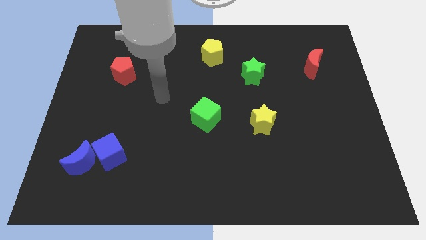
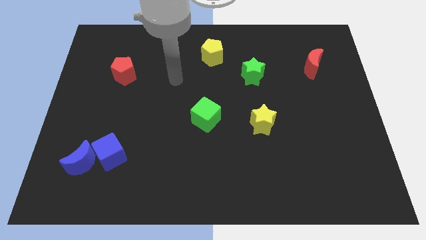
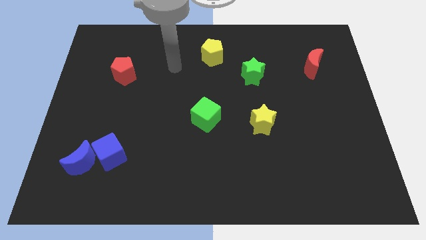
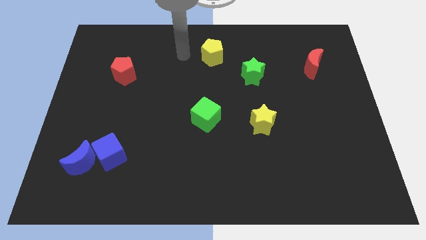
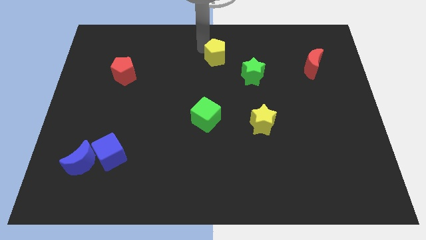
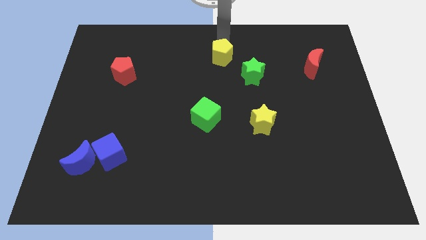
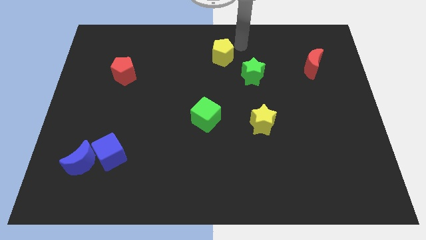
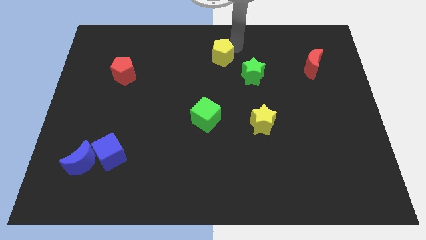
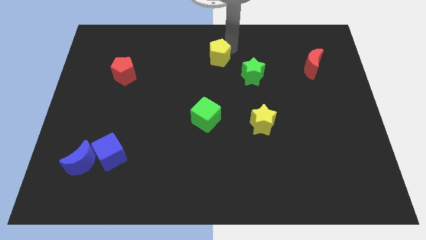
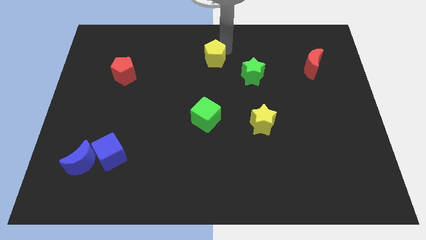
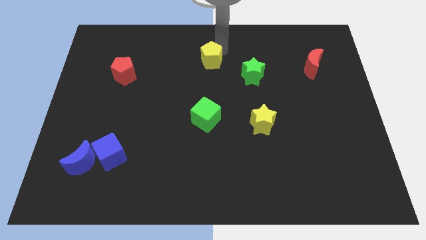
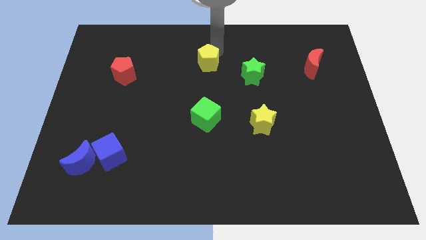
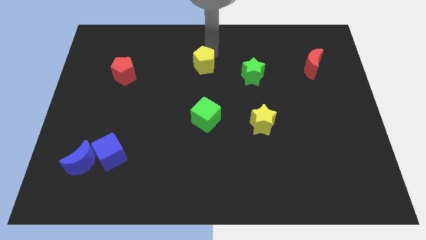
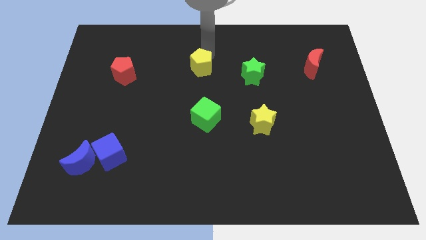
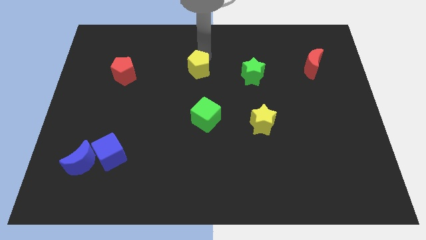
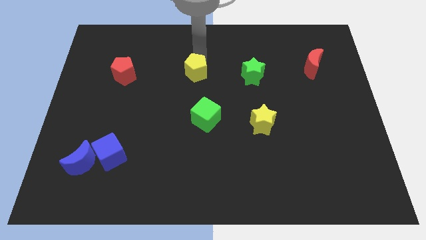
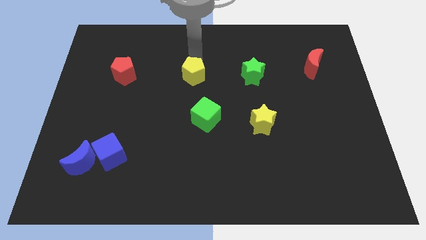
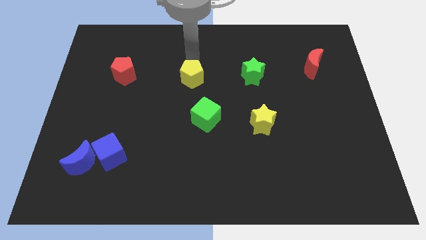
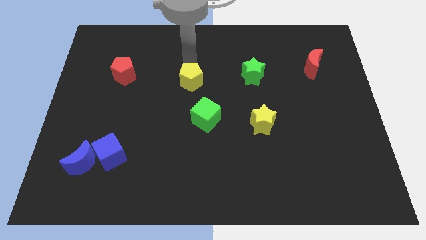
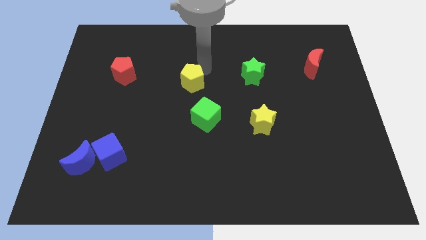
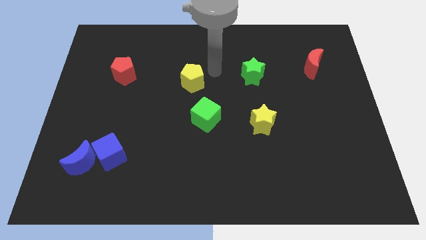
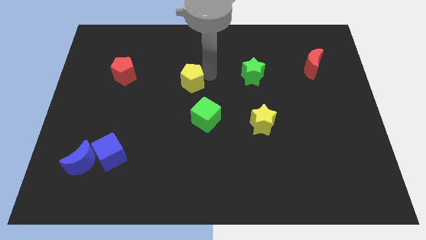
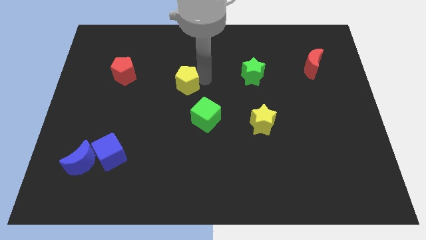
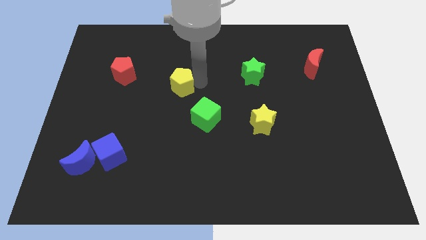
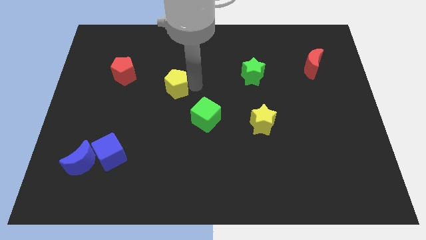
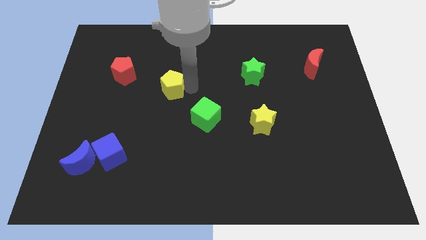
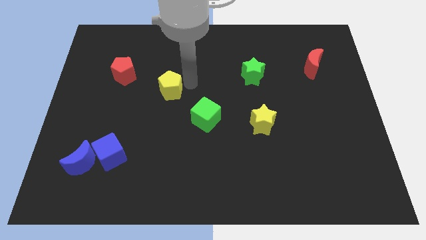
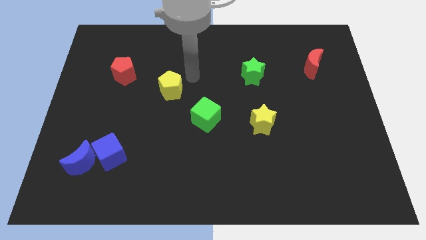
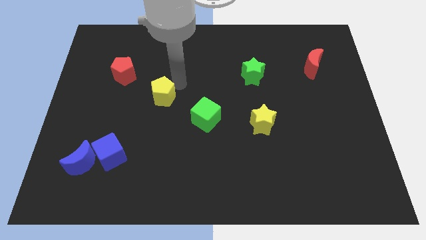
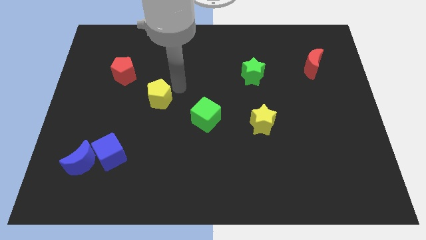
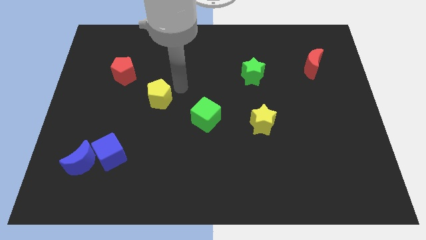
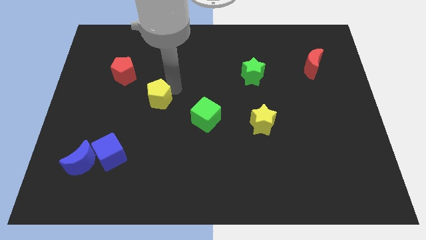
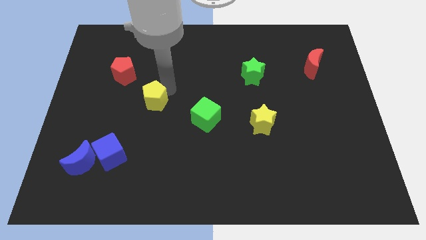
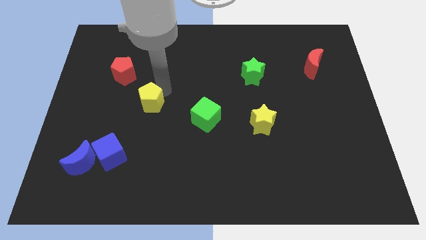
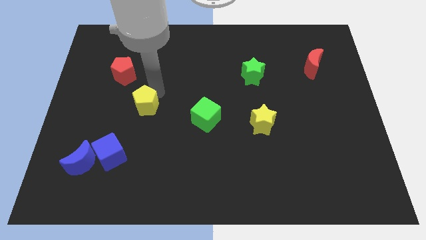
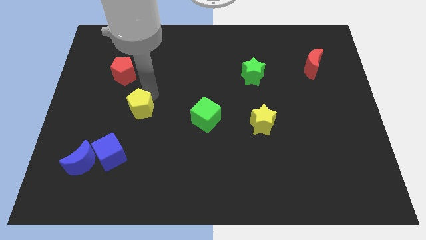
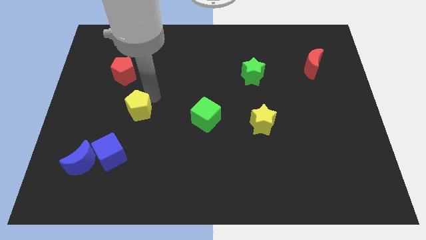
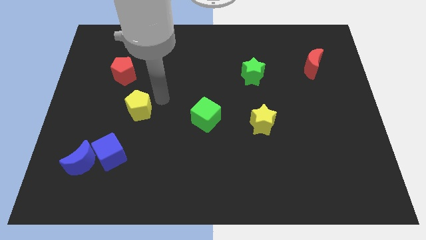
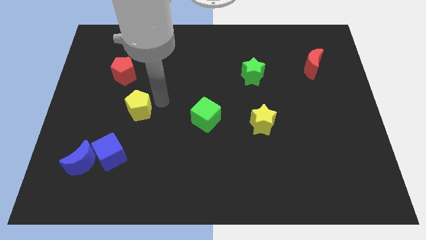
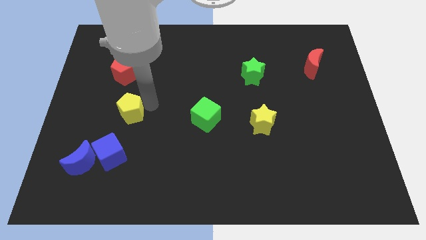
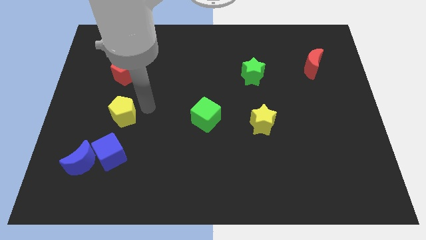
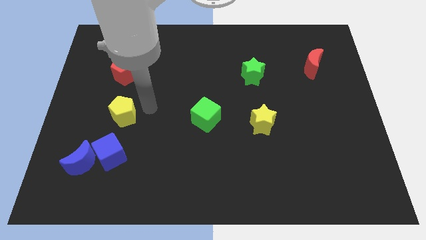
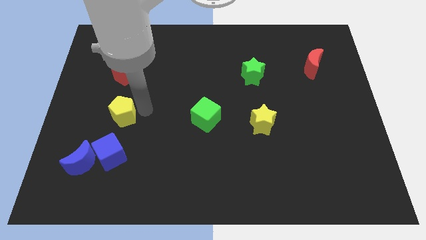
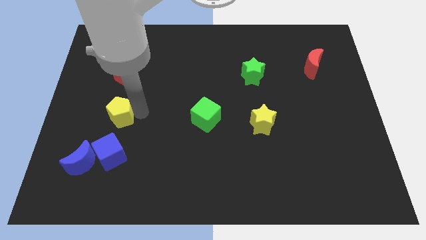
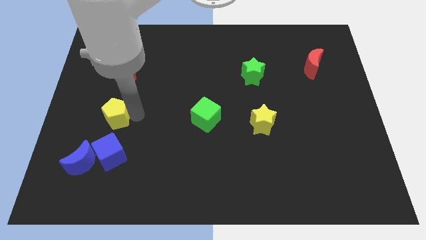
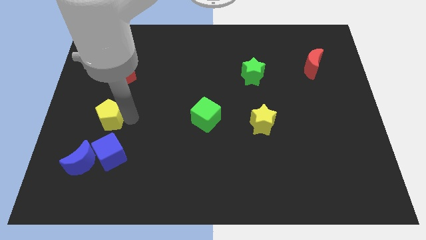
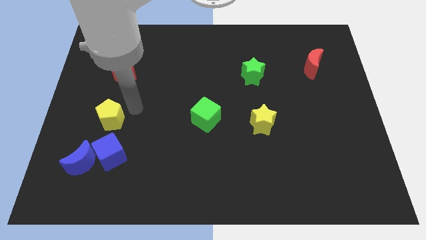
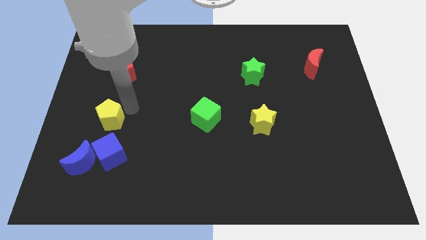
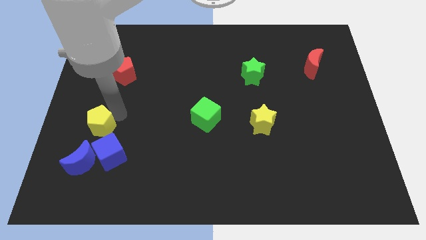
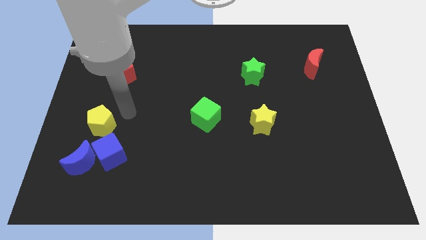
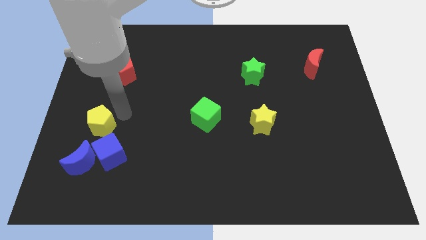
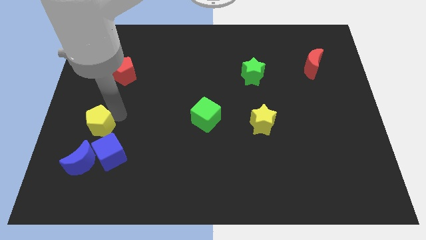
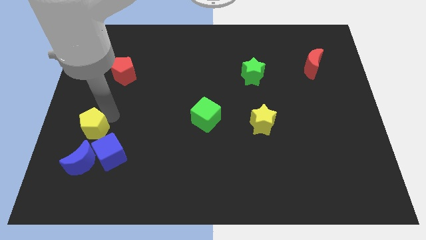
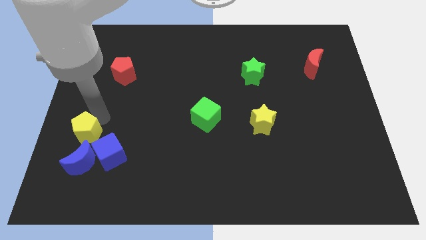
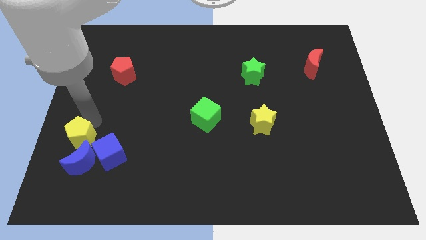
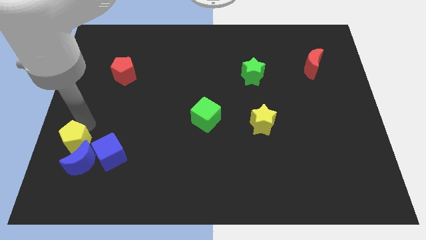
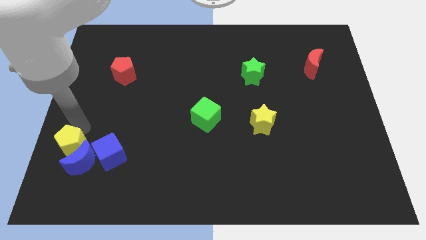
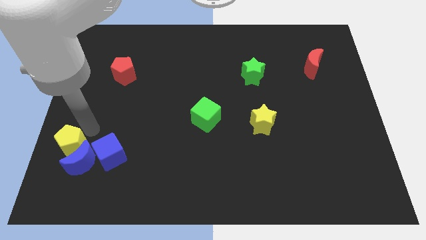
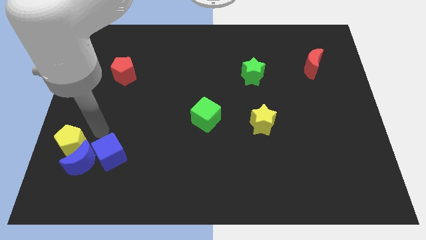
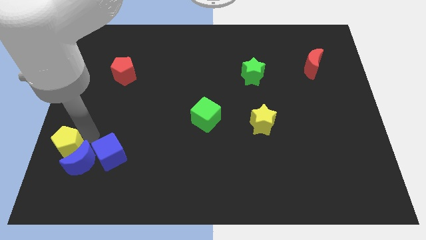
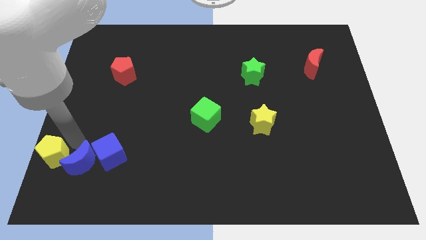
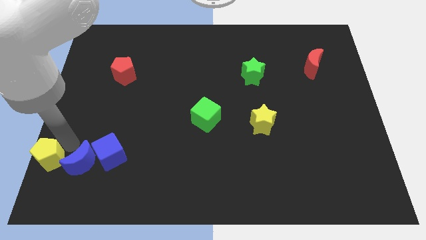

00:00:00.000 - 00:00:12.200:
put the yellow pentagon to the bottom left corner
